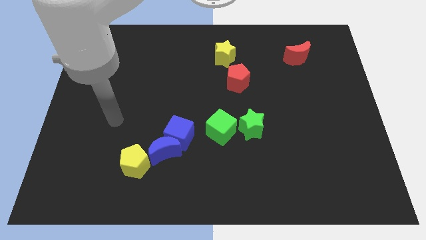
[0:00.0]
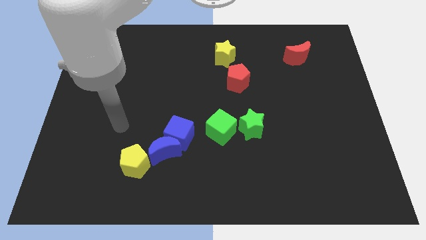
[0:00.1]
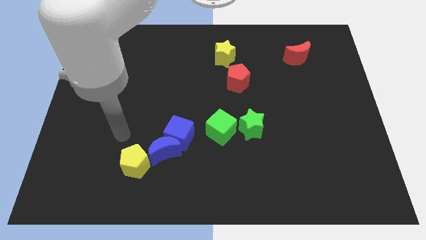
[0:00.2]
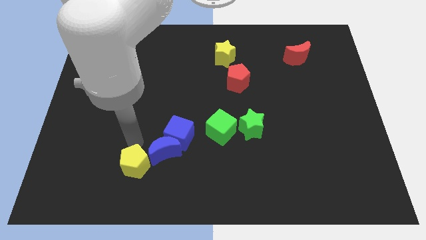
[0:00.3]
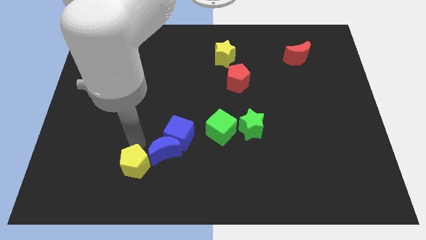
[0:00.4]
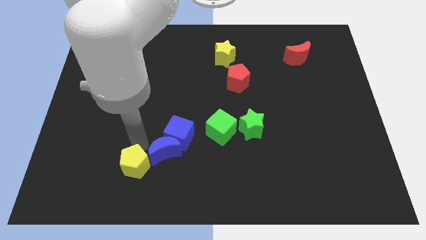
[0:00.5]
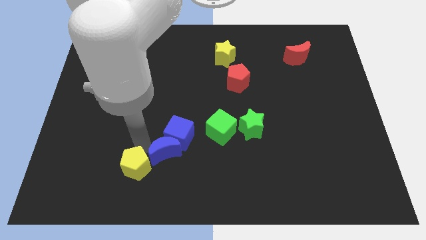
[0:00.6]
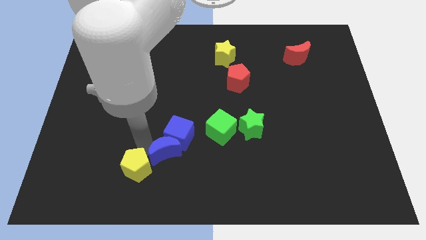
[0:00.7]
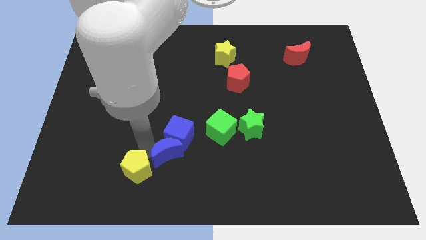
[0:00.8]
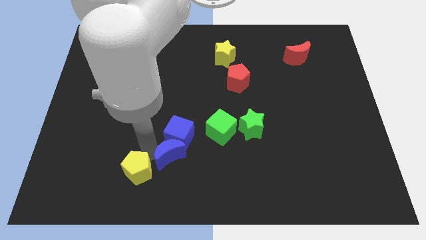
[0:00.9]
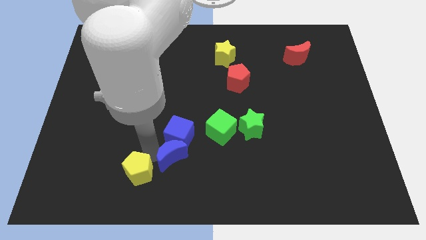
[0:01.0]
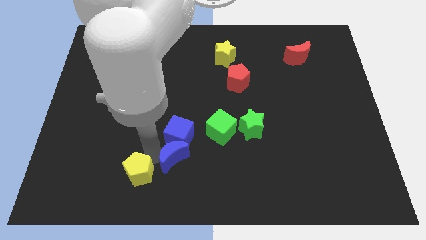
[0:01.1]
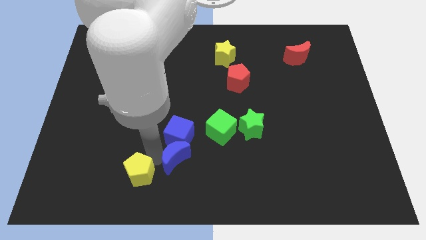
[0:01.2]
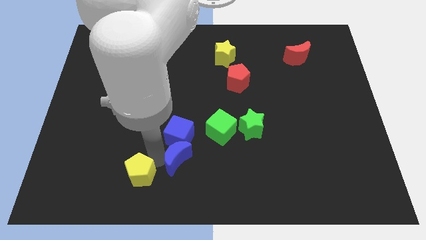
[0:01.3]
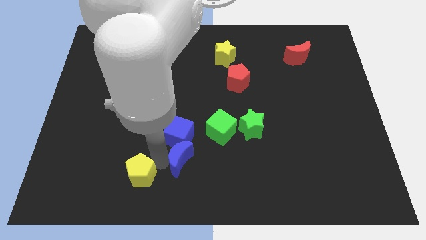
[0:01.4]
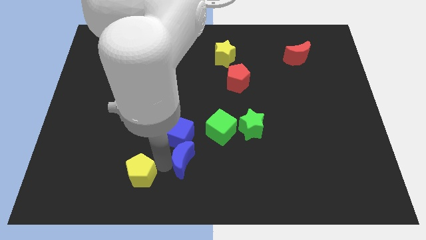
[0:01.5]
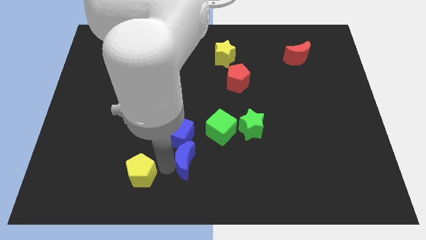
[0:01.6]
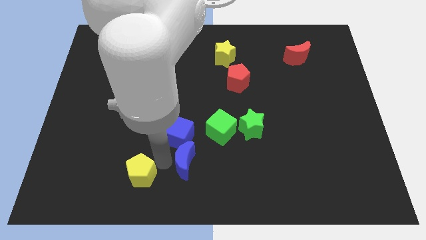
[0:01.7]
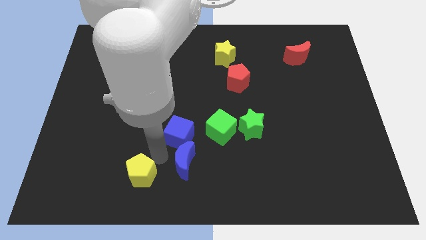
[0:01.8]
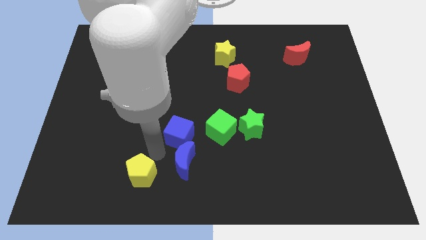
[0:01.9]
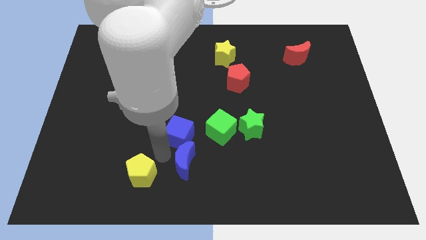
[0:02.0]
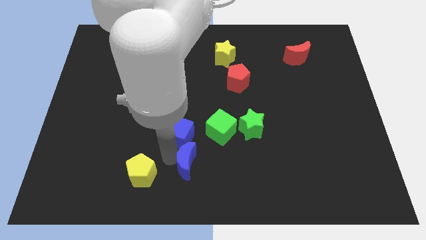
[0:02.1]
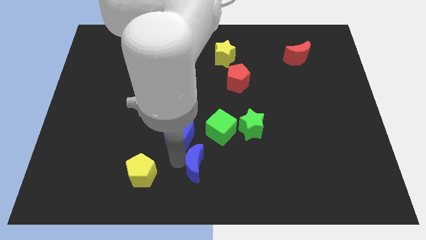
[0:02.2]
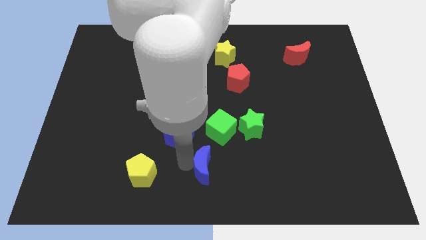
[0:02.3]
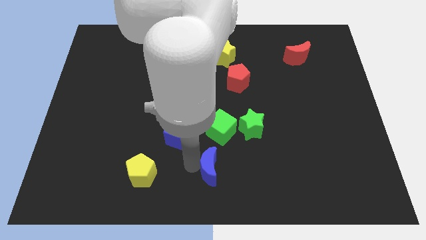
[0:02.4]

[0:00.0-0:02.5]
pull the blue moon apart from the blue cube and yellow pentagon

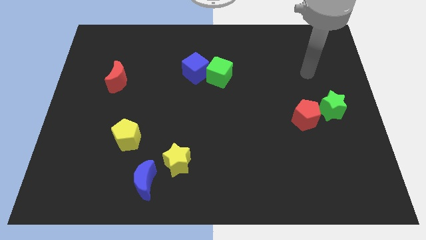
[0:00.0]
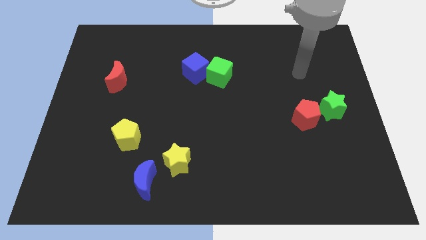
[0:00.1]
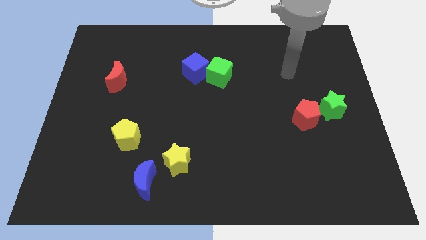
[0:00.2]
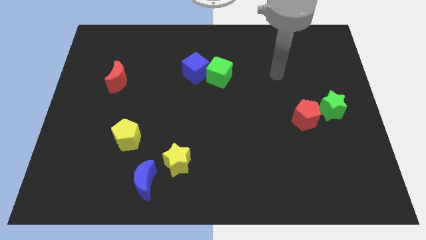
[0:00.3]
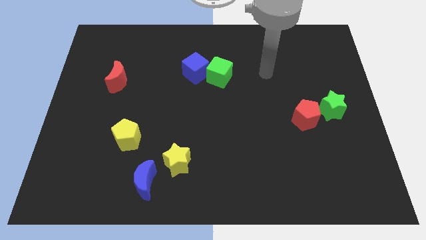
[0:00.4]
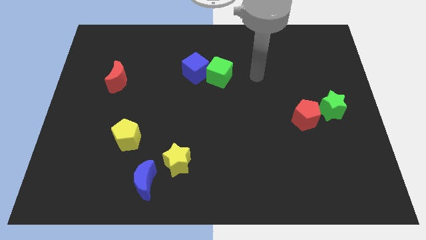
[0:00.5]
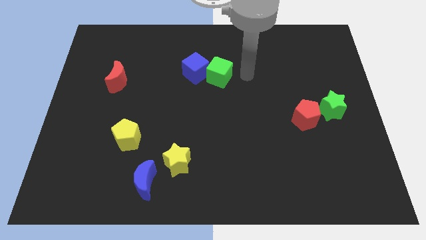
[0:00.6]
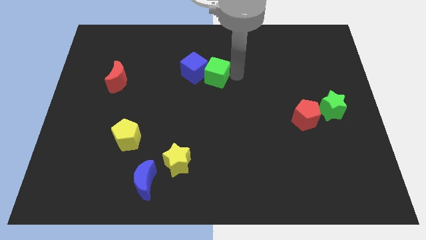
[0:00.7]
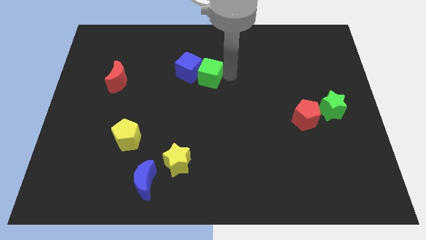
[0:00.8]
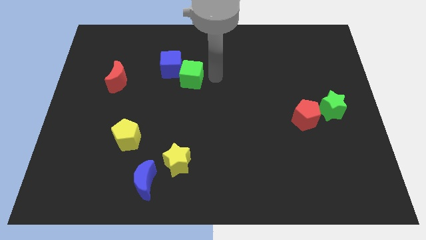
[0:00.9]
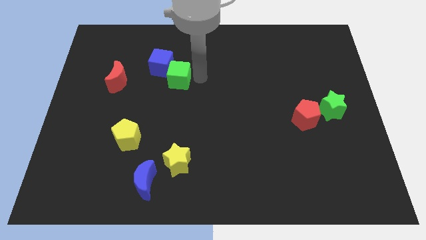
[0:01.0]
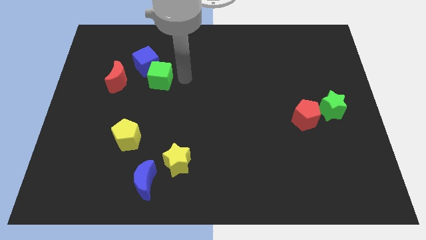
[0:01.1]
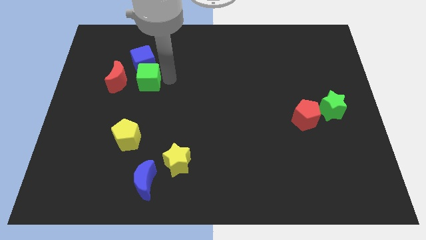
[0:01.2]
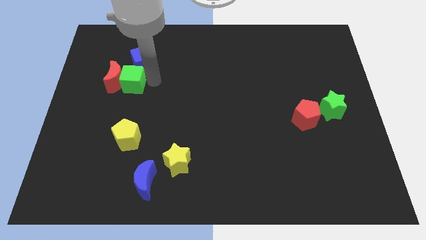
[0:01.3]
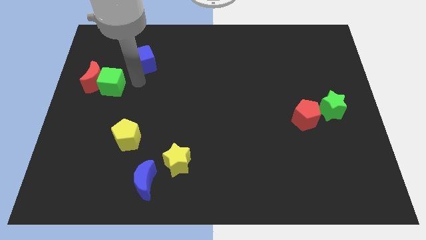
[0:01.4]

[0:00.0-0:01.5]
pull the blue cube apart from the green cube

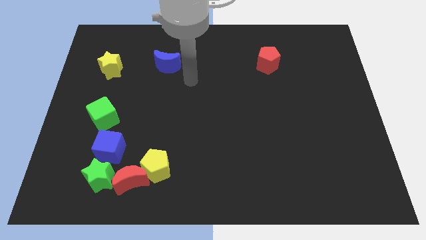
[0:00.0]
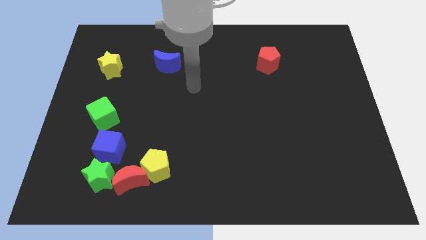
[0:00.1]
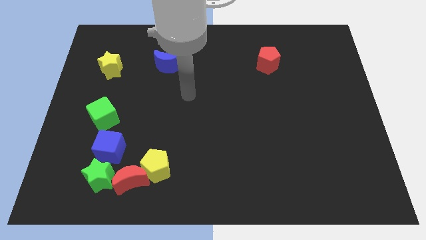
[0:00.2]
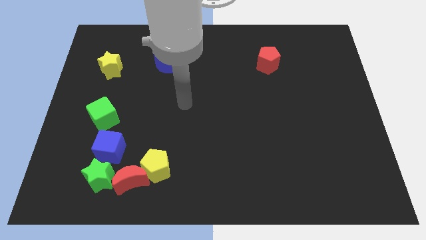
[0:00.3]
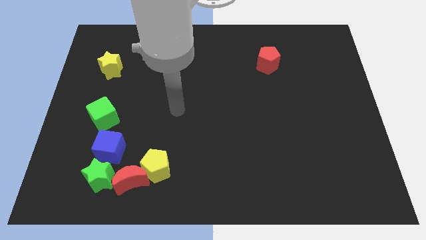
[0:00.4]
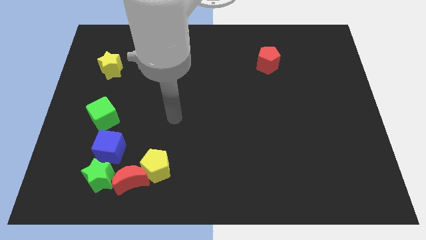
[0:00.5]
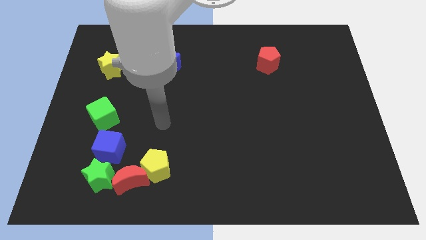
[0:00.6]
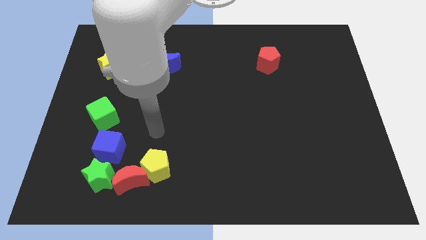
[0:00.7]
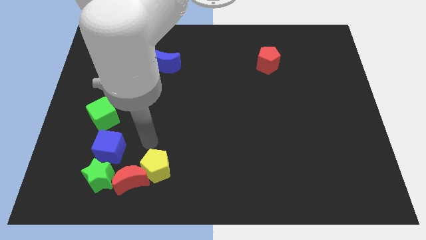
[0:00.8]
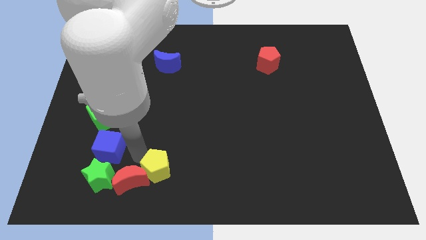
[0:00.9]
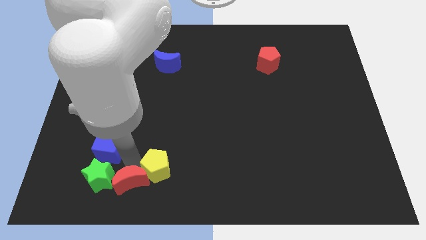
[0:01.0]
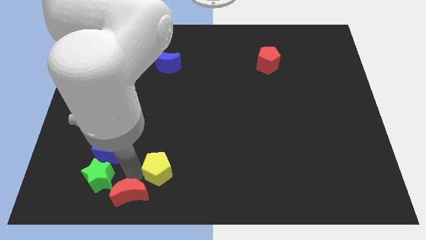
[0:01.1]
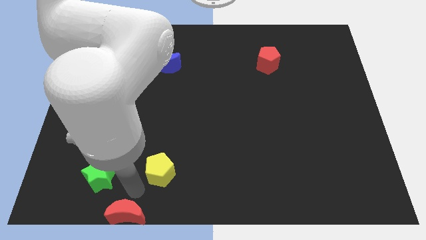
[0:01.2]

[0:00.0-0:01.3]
move the yellow pentagon away from the red moon

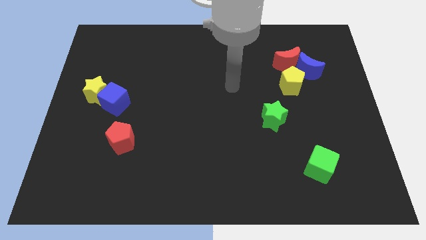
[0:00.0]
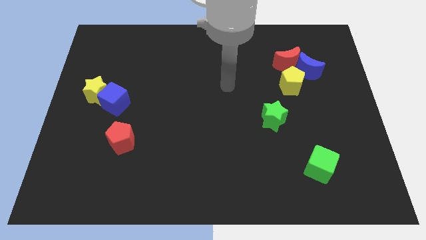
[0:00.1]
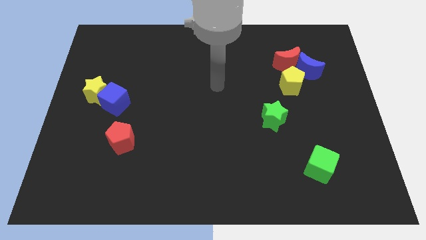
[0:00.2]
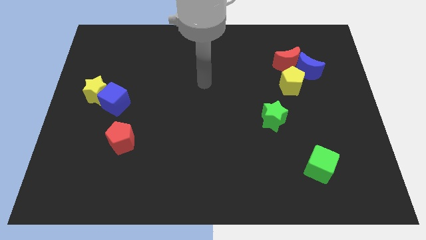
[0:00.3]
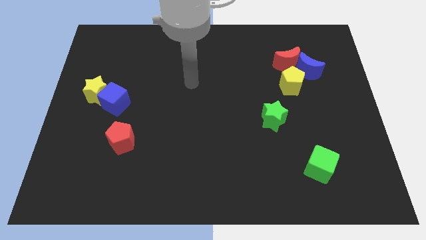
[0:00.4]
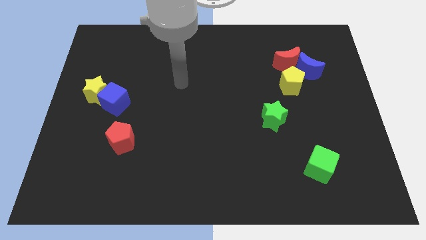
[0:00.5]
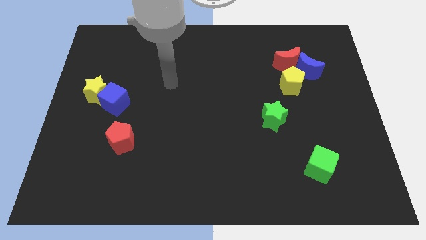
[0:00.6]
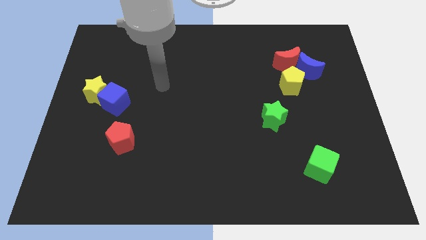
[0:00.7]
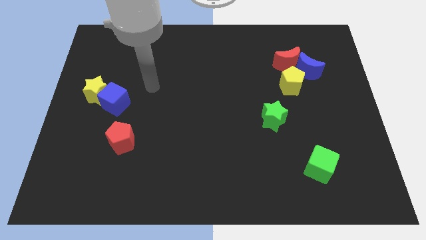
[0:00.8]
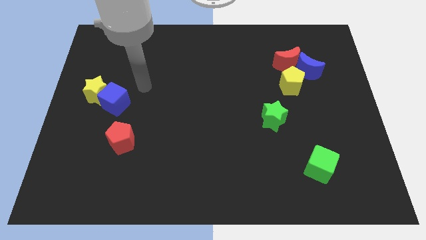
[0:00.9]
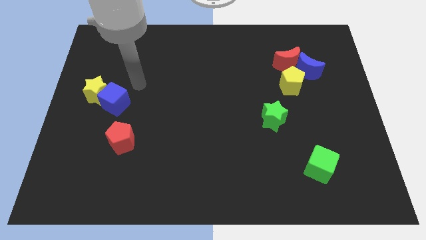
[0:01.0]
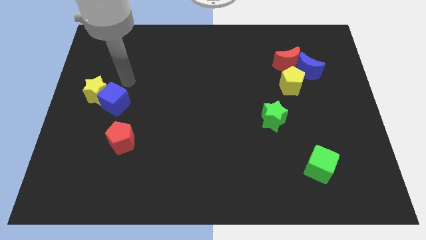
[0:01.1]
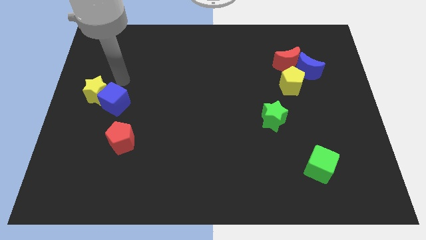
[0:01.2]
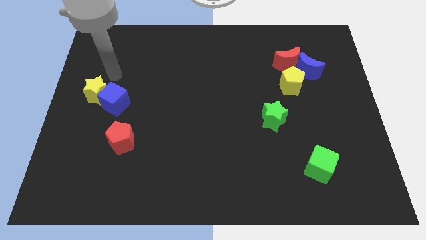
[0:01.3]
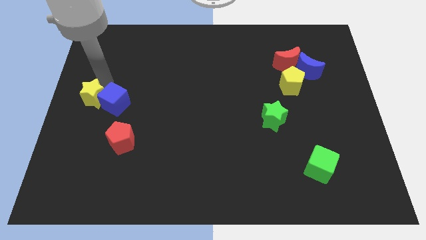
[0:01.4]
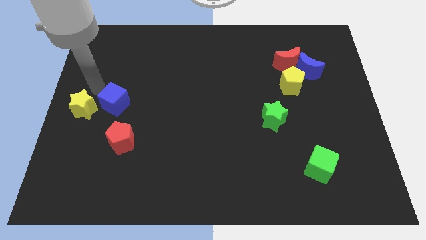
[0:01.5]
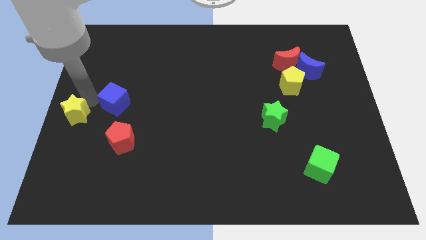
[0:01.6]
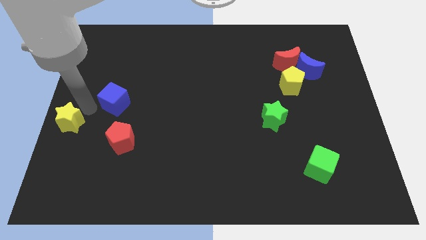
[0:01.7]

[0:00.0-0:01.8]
separate the blue cube from the yellow star

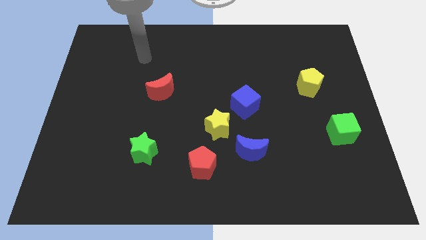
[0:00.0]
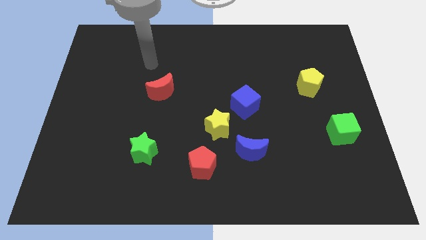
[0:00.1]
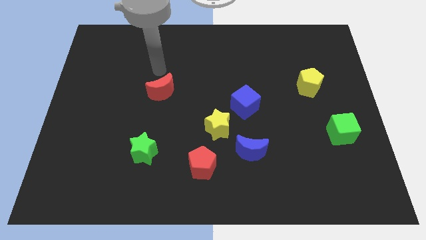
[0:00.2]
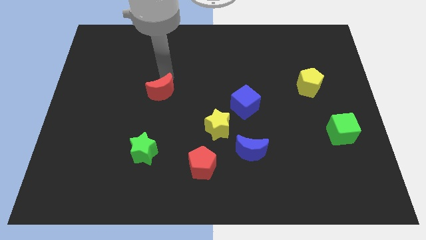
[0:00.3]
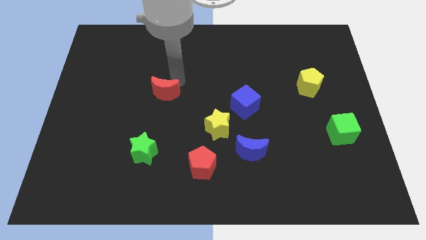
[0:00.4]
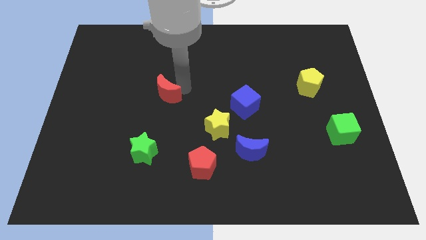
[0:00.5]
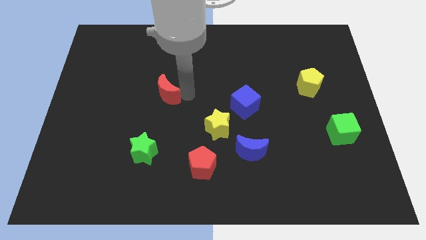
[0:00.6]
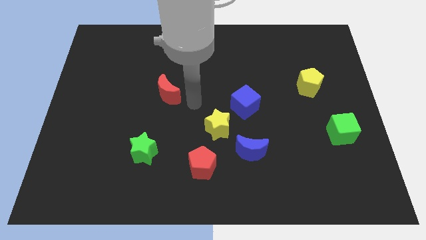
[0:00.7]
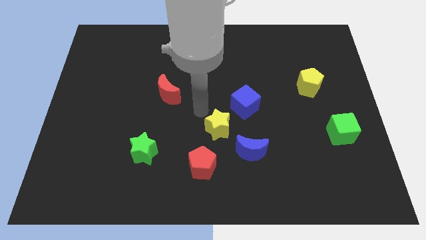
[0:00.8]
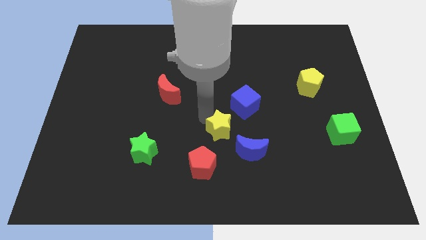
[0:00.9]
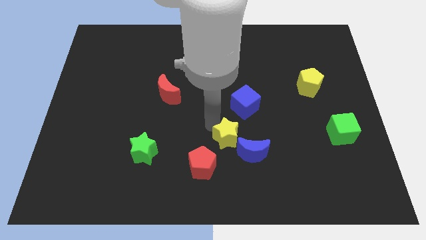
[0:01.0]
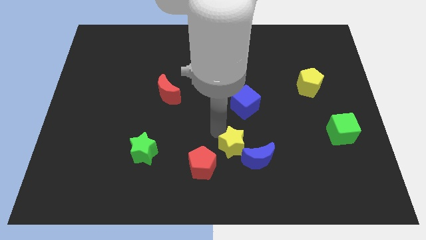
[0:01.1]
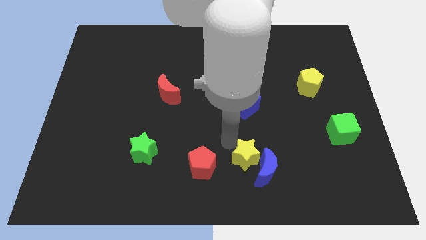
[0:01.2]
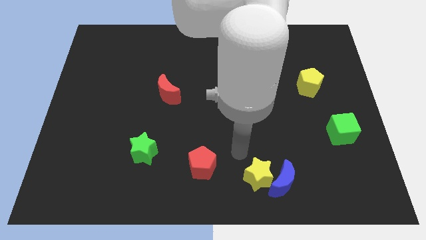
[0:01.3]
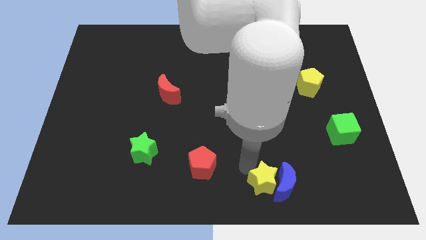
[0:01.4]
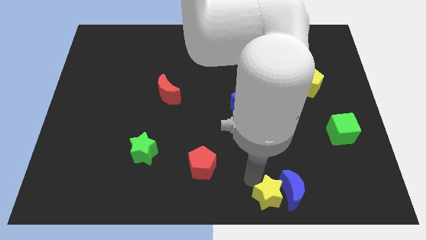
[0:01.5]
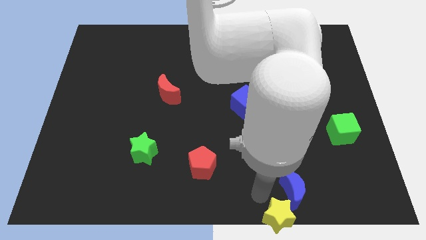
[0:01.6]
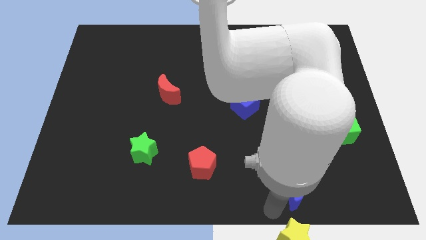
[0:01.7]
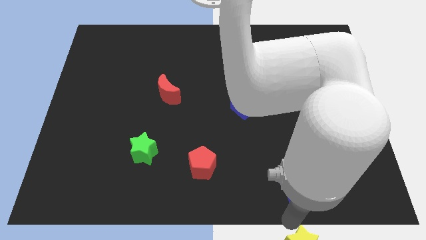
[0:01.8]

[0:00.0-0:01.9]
pull the blue moon apart from the yellow star

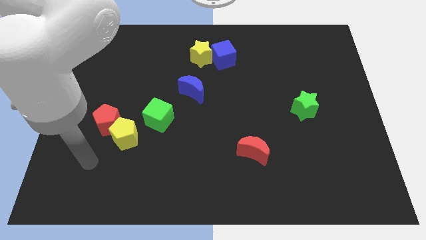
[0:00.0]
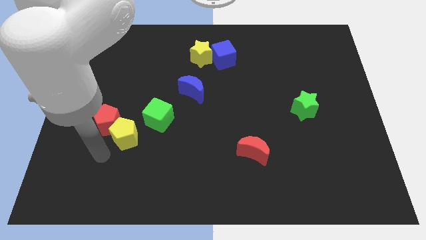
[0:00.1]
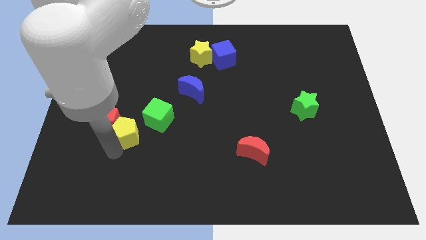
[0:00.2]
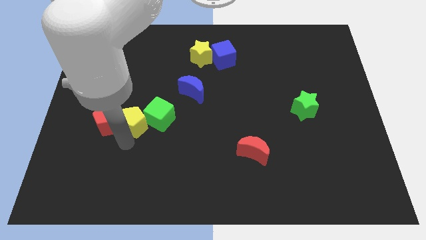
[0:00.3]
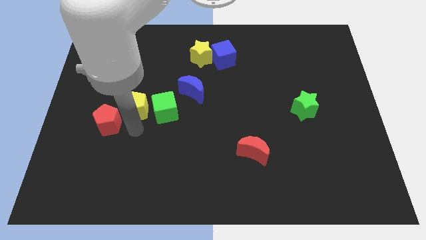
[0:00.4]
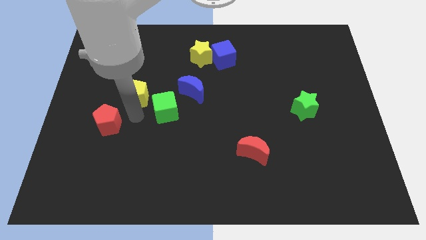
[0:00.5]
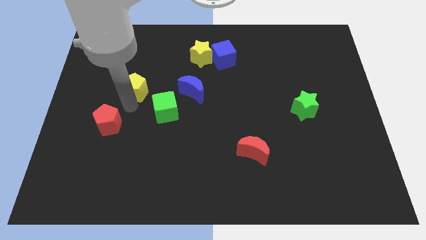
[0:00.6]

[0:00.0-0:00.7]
separate the red pentagon from the yellow pentagon
